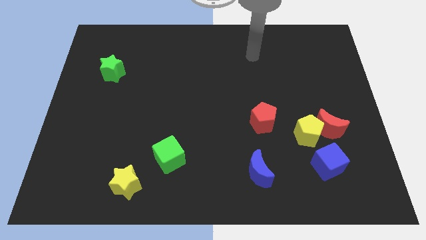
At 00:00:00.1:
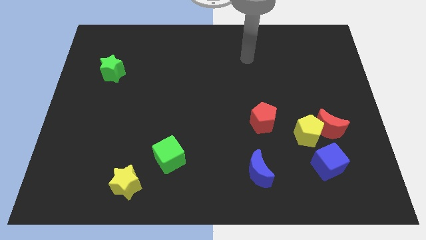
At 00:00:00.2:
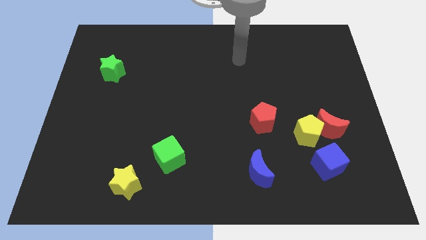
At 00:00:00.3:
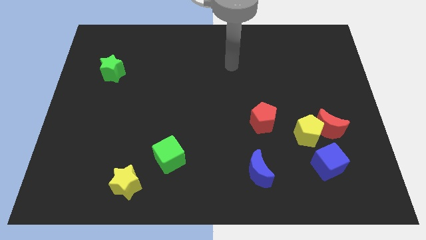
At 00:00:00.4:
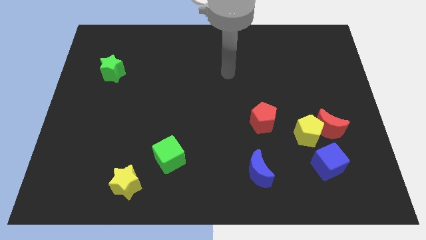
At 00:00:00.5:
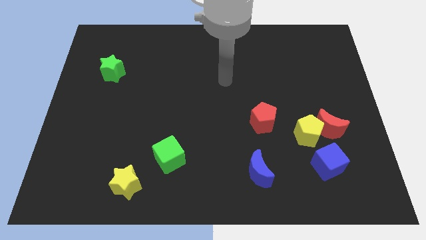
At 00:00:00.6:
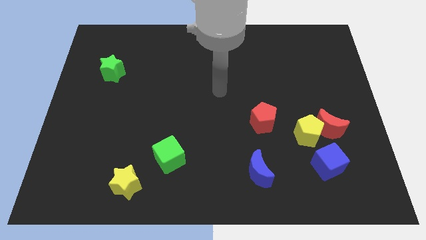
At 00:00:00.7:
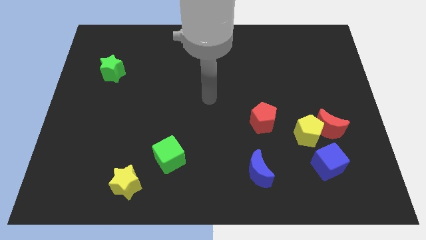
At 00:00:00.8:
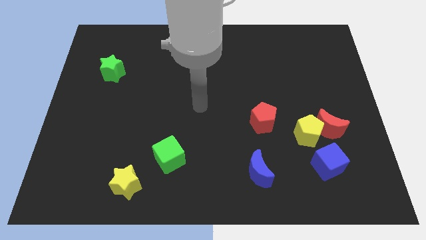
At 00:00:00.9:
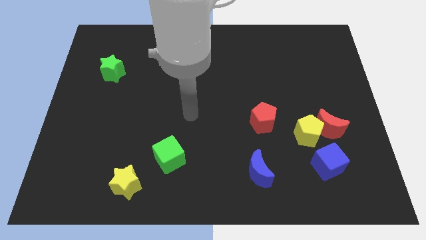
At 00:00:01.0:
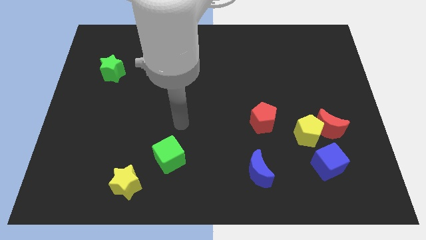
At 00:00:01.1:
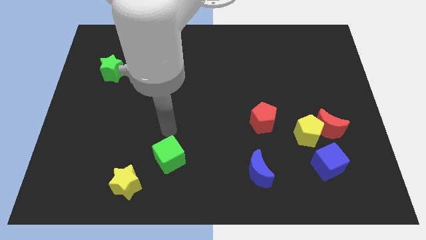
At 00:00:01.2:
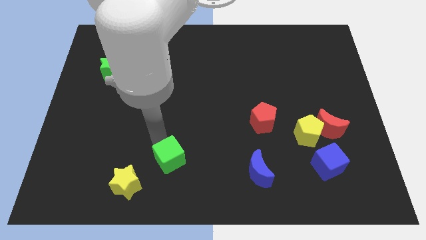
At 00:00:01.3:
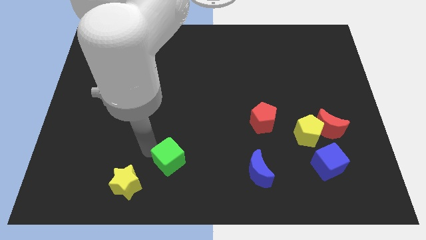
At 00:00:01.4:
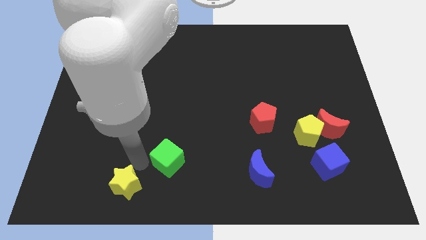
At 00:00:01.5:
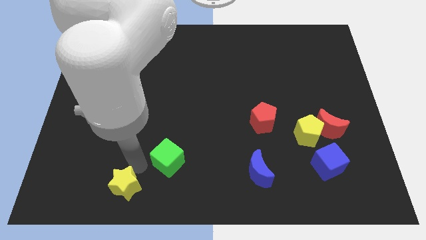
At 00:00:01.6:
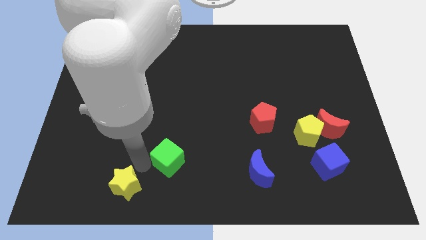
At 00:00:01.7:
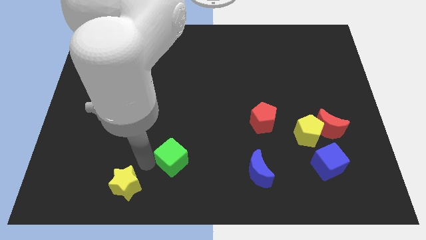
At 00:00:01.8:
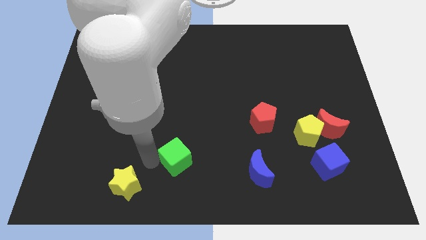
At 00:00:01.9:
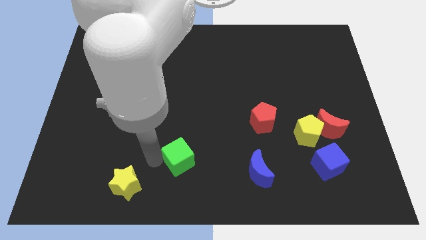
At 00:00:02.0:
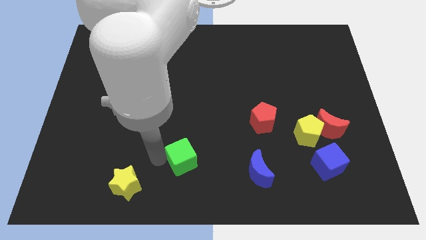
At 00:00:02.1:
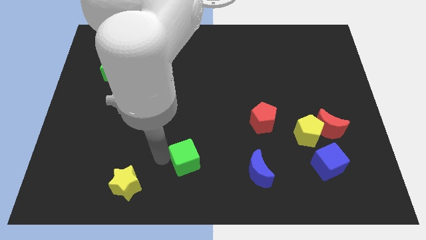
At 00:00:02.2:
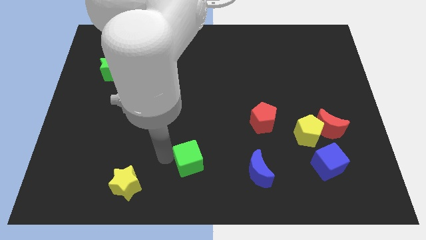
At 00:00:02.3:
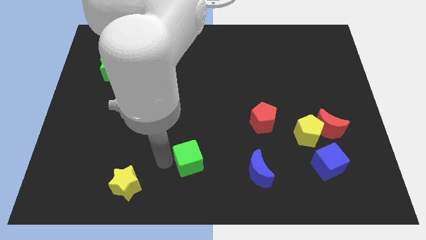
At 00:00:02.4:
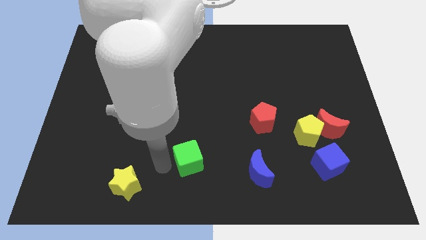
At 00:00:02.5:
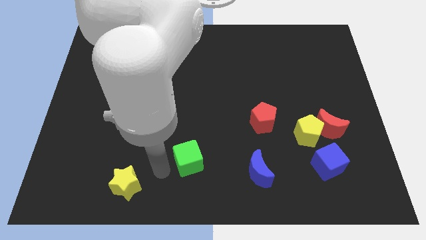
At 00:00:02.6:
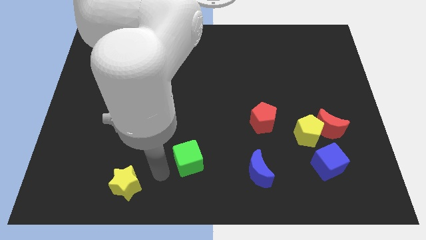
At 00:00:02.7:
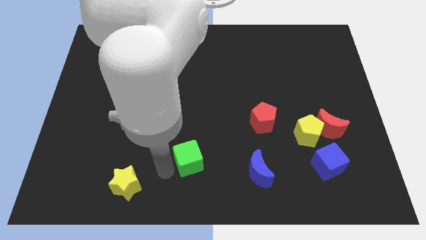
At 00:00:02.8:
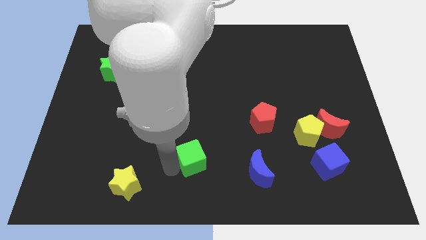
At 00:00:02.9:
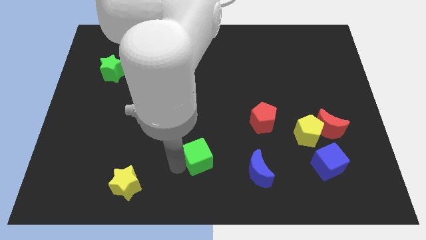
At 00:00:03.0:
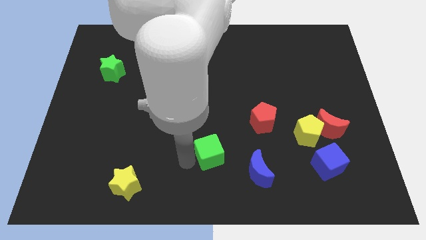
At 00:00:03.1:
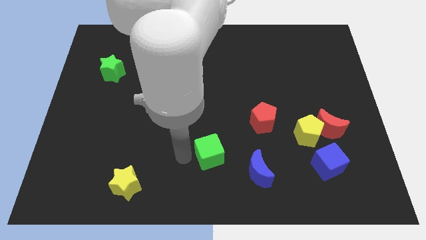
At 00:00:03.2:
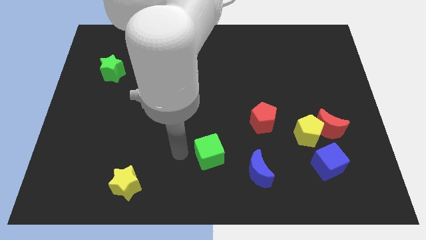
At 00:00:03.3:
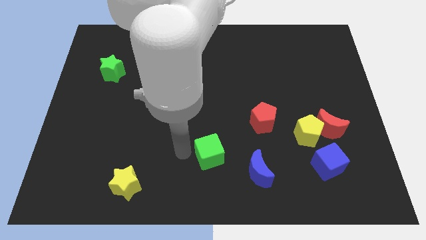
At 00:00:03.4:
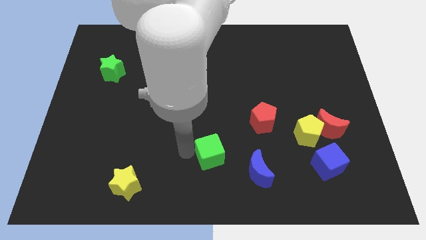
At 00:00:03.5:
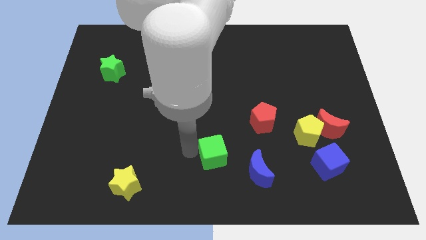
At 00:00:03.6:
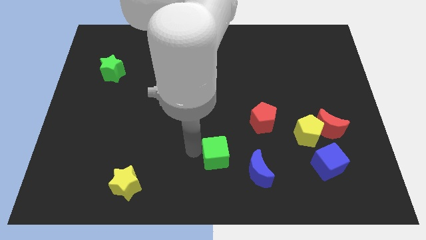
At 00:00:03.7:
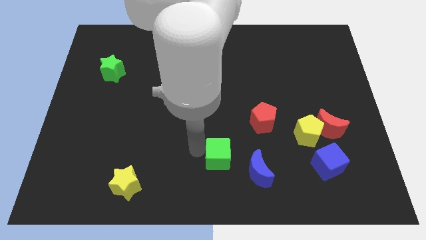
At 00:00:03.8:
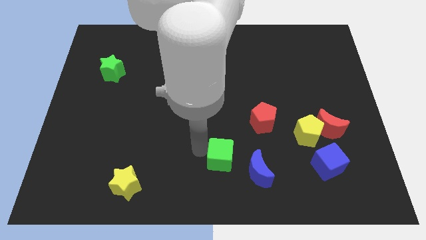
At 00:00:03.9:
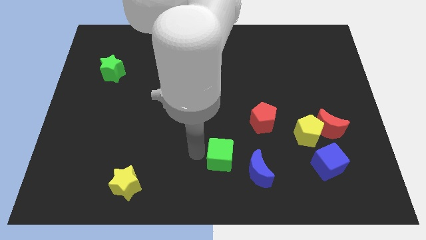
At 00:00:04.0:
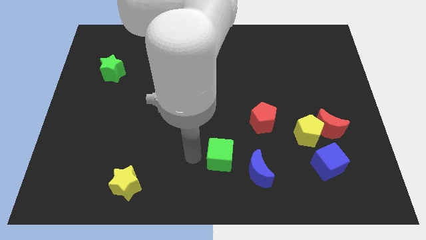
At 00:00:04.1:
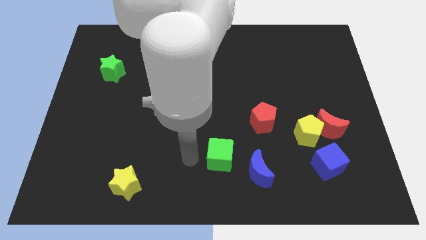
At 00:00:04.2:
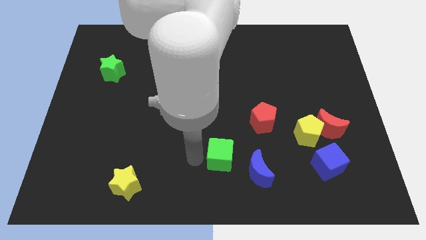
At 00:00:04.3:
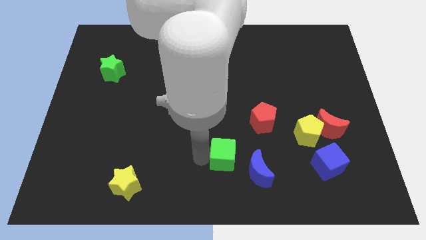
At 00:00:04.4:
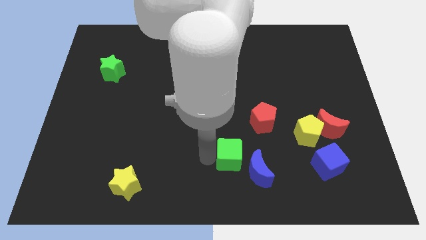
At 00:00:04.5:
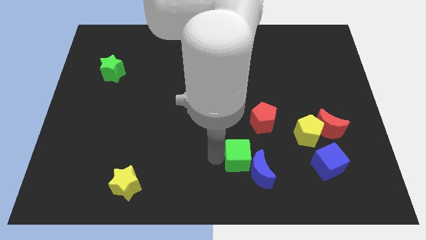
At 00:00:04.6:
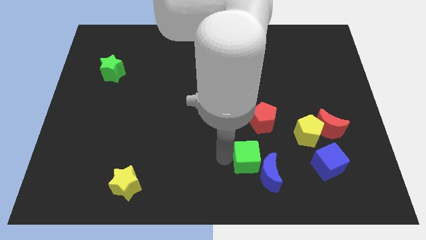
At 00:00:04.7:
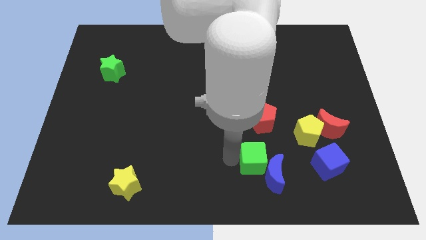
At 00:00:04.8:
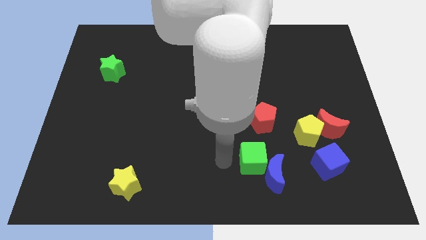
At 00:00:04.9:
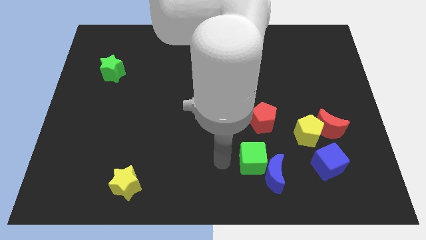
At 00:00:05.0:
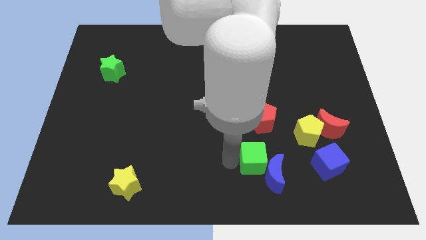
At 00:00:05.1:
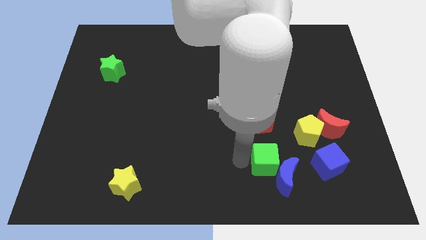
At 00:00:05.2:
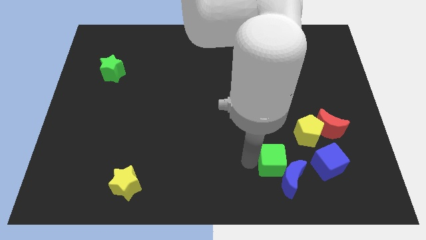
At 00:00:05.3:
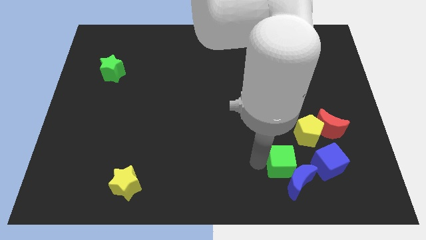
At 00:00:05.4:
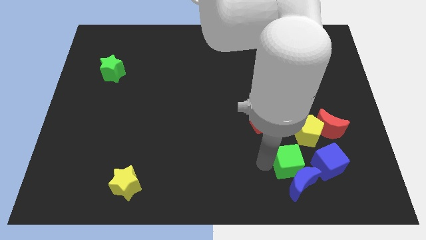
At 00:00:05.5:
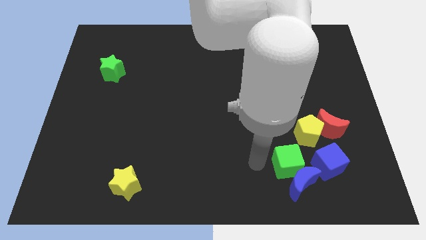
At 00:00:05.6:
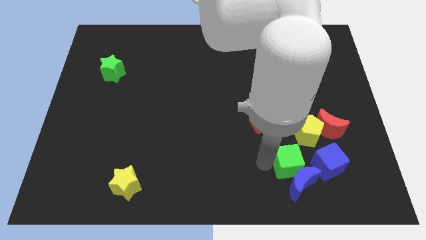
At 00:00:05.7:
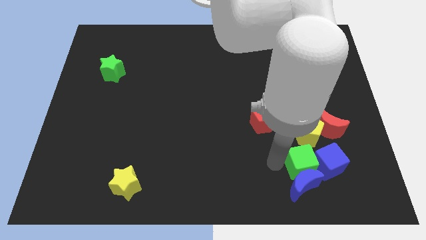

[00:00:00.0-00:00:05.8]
put the green cube next to the blue cube
